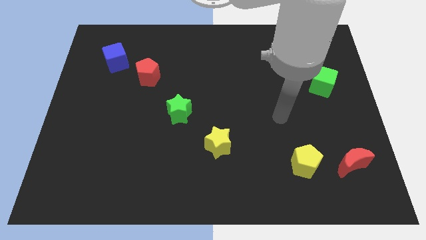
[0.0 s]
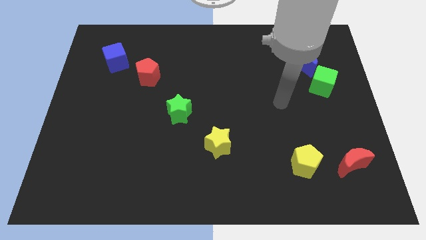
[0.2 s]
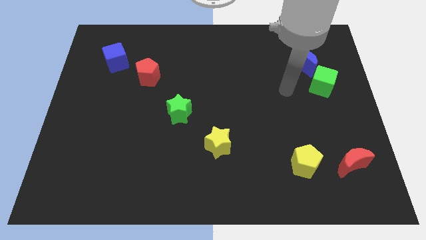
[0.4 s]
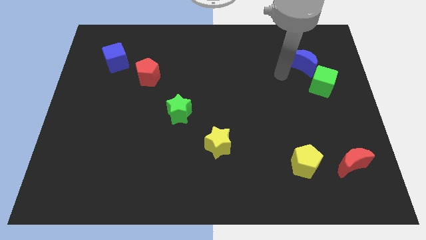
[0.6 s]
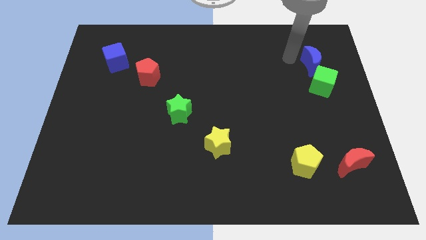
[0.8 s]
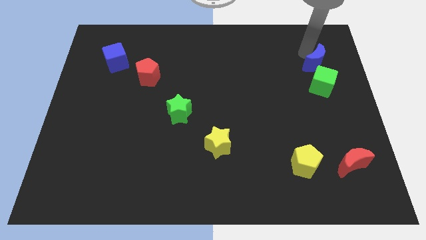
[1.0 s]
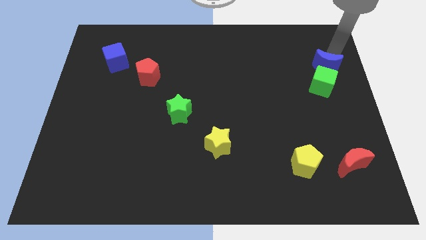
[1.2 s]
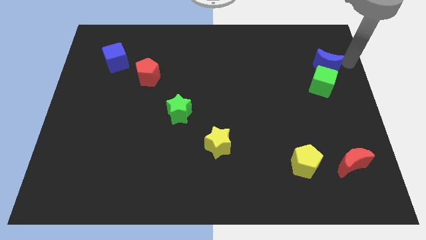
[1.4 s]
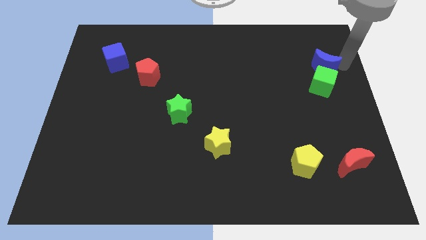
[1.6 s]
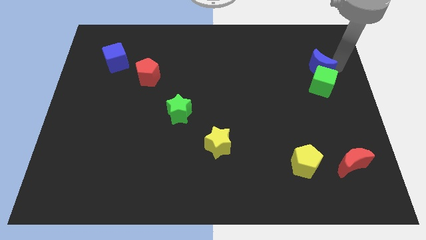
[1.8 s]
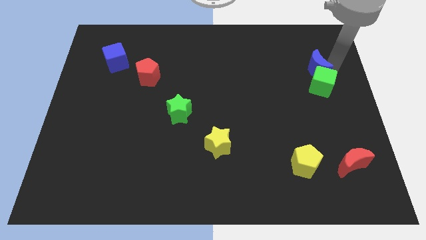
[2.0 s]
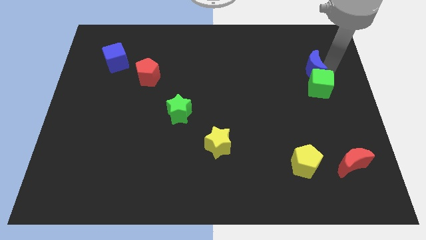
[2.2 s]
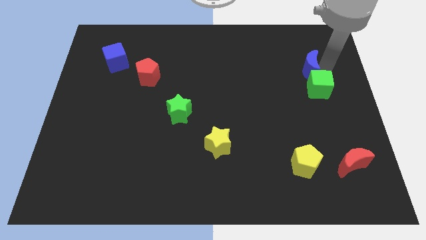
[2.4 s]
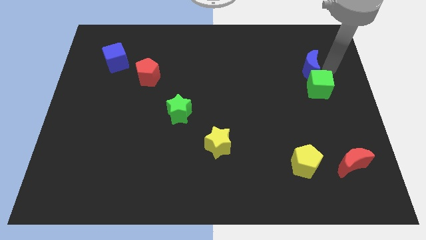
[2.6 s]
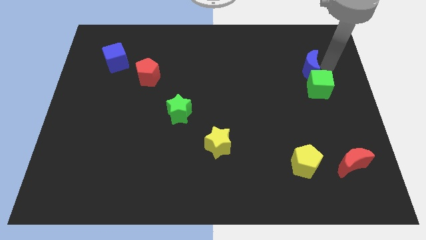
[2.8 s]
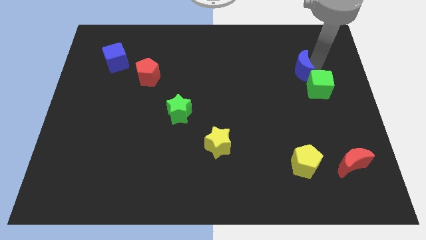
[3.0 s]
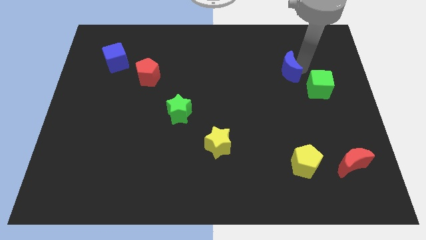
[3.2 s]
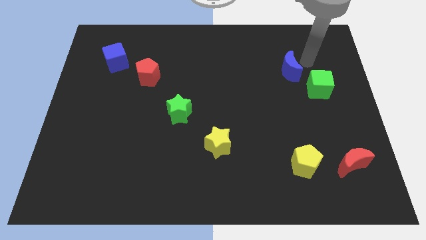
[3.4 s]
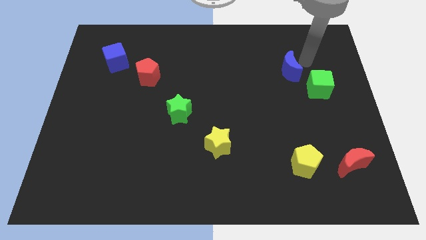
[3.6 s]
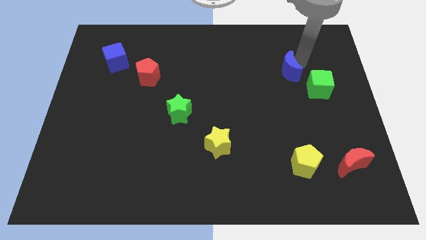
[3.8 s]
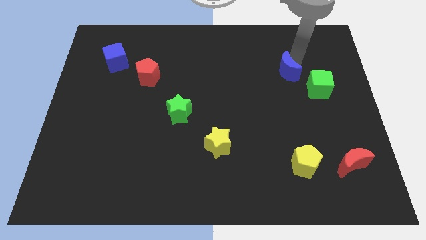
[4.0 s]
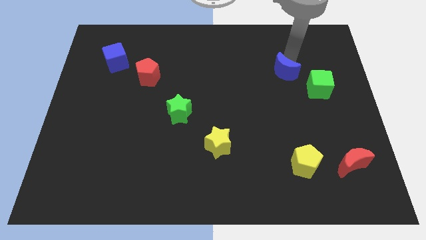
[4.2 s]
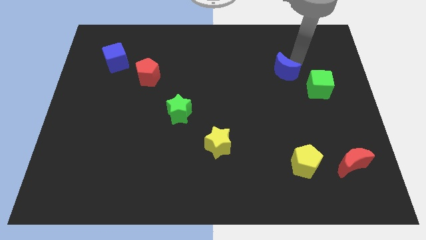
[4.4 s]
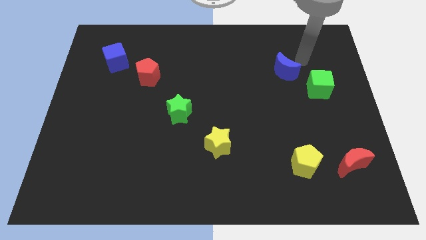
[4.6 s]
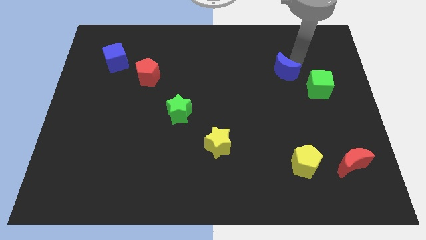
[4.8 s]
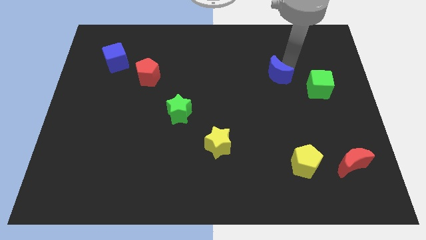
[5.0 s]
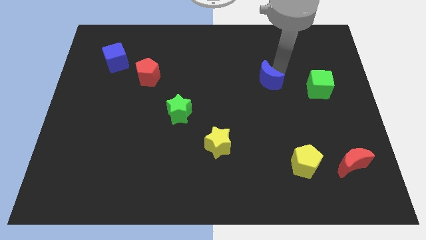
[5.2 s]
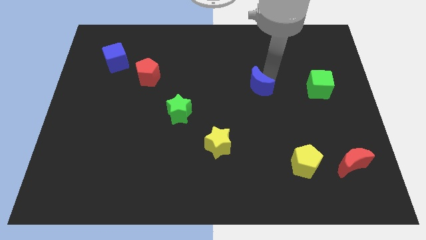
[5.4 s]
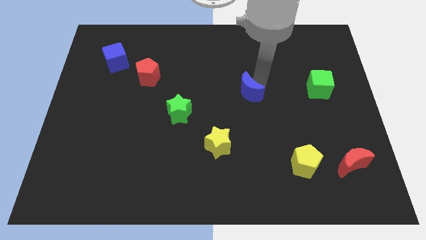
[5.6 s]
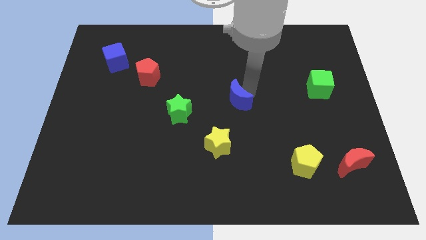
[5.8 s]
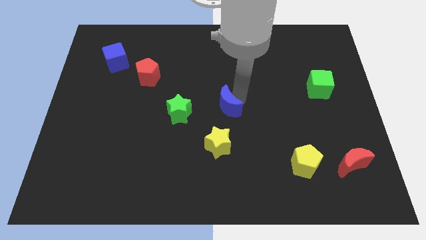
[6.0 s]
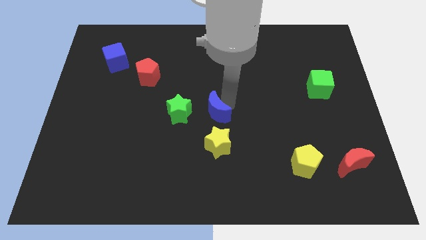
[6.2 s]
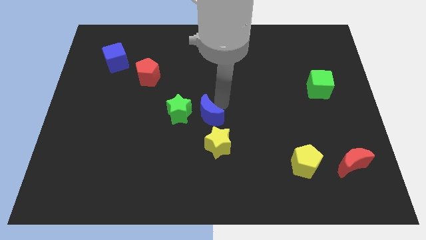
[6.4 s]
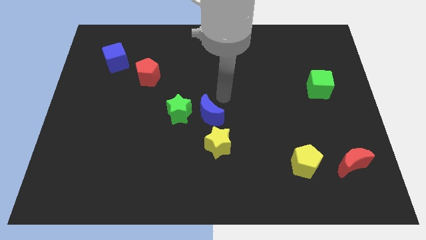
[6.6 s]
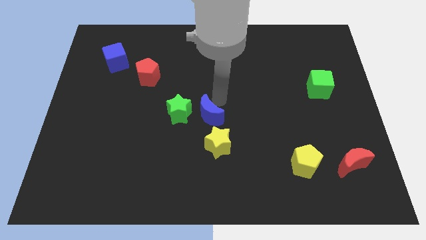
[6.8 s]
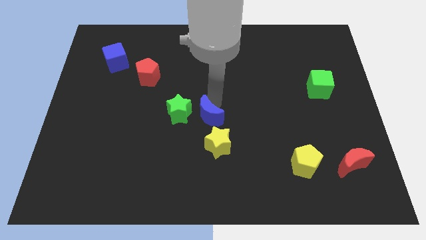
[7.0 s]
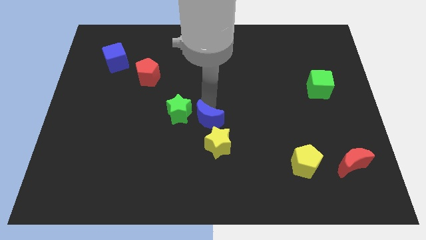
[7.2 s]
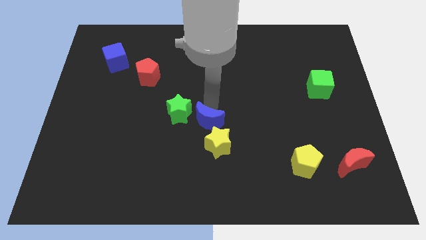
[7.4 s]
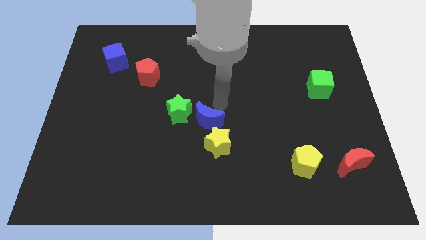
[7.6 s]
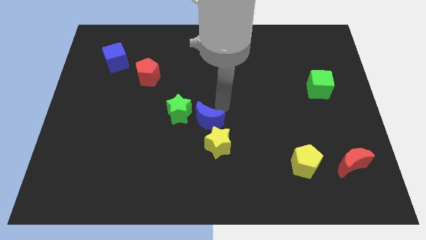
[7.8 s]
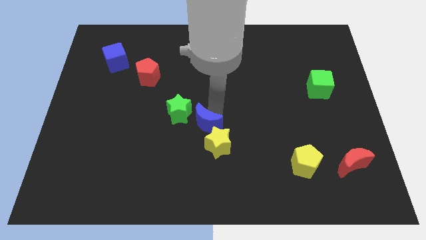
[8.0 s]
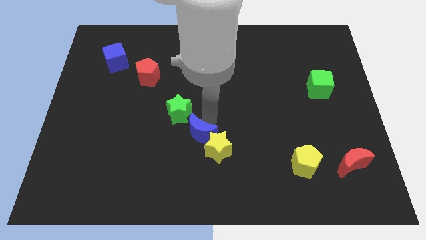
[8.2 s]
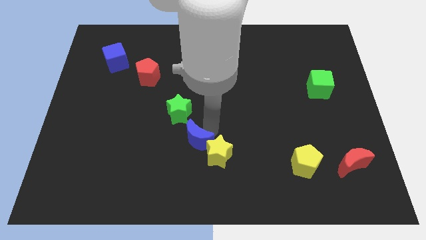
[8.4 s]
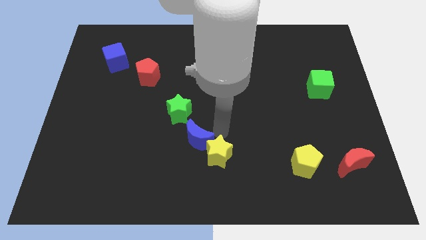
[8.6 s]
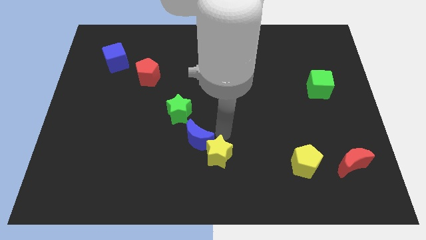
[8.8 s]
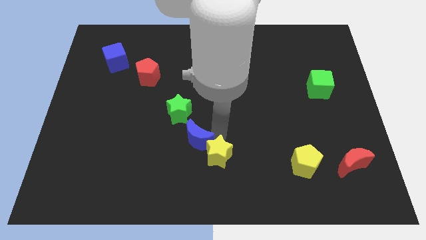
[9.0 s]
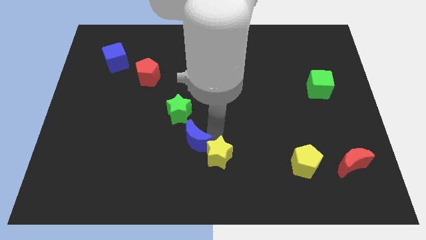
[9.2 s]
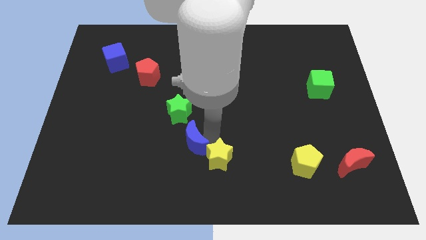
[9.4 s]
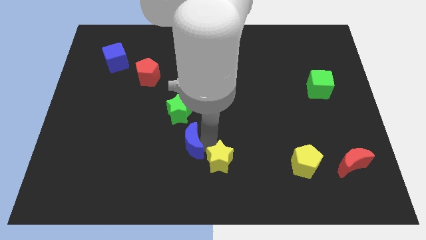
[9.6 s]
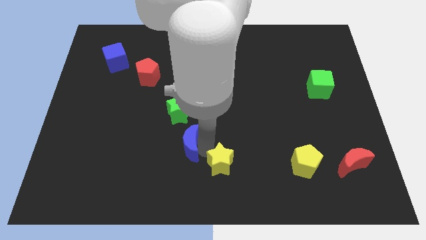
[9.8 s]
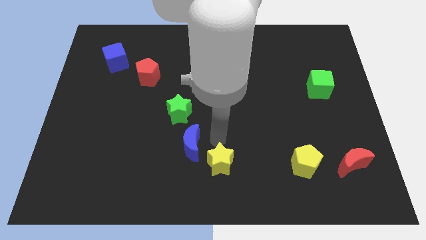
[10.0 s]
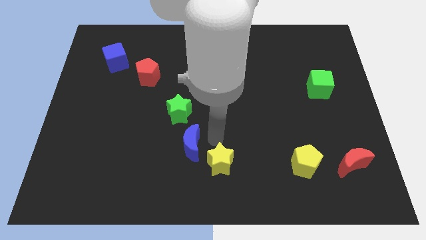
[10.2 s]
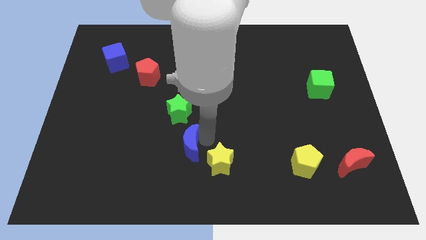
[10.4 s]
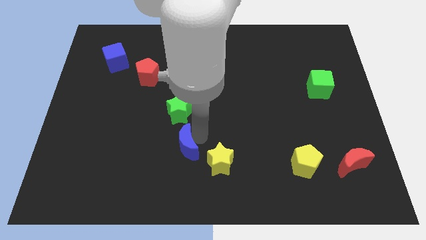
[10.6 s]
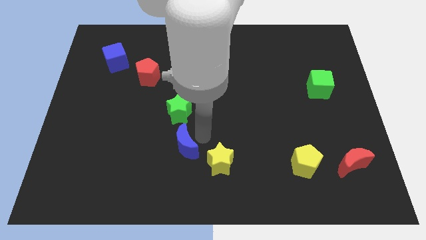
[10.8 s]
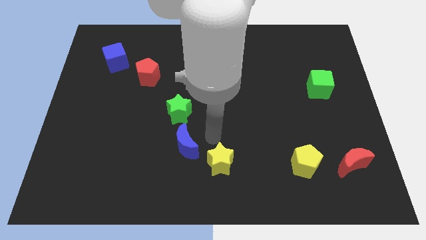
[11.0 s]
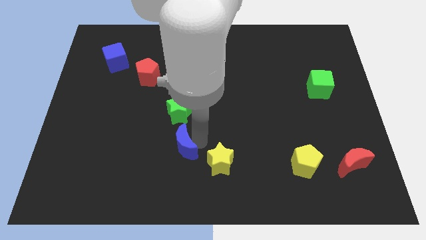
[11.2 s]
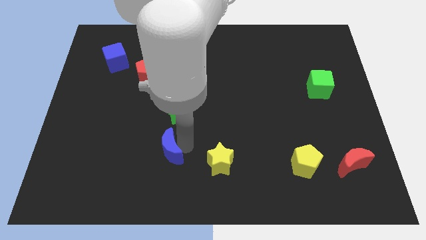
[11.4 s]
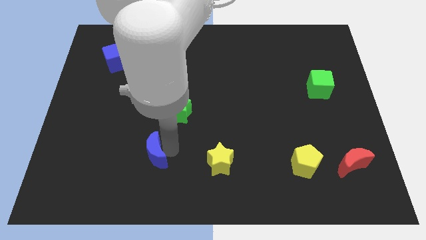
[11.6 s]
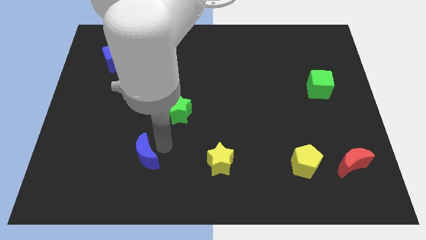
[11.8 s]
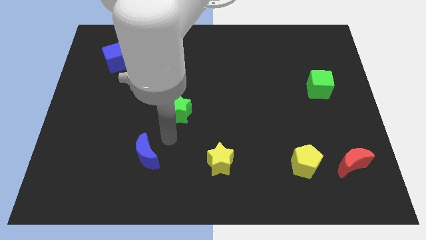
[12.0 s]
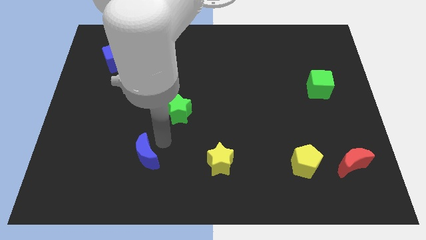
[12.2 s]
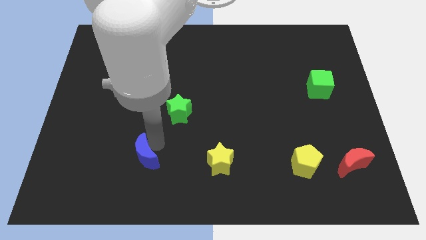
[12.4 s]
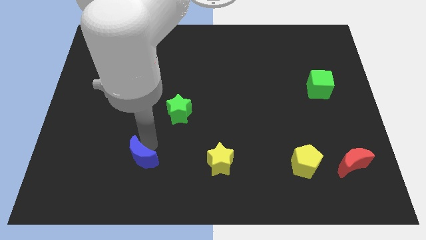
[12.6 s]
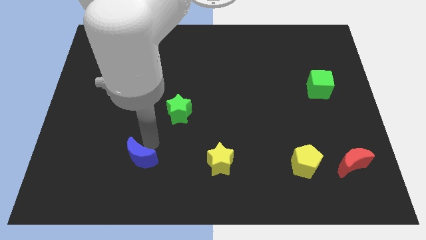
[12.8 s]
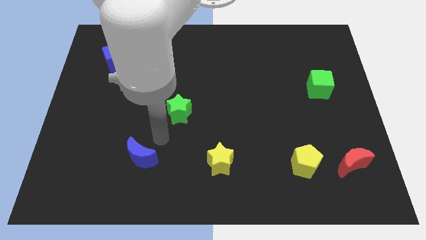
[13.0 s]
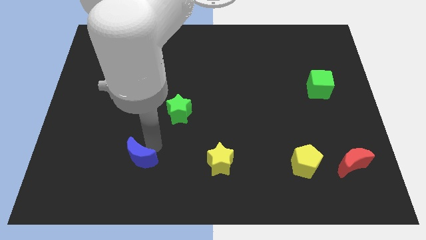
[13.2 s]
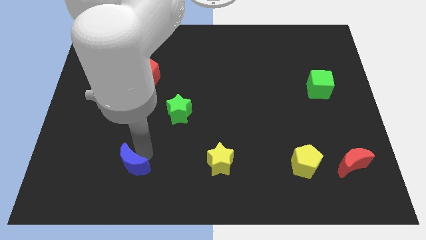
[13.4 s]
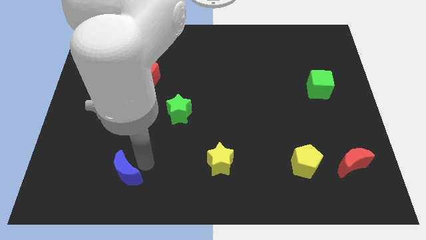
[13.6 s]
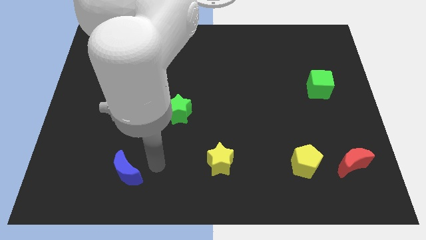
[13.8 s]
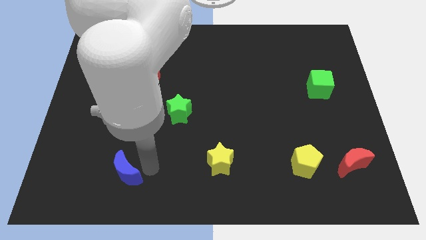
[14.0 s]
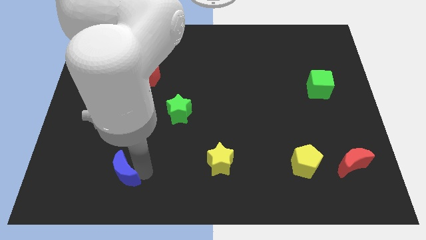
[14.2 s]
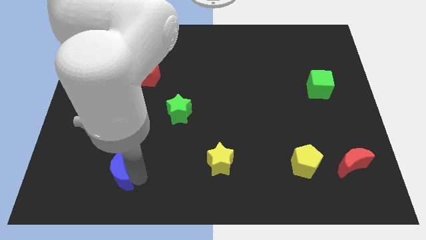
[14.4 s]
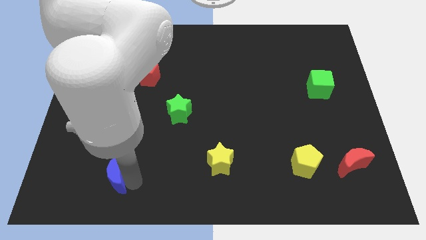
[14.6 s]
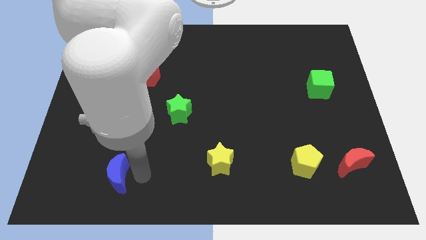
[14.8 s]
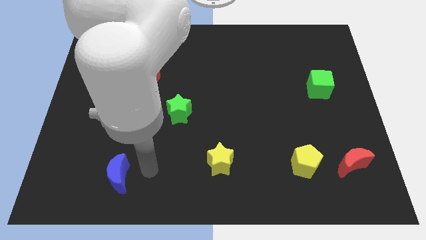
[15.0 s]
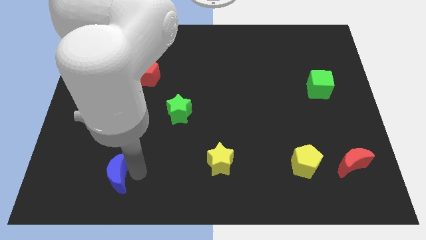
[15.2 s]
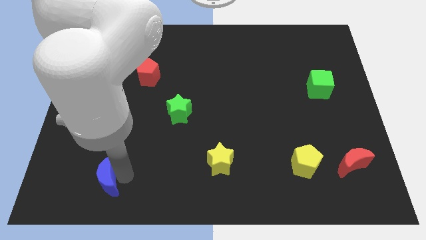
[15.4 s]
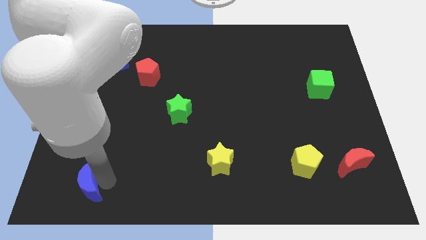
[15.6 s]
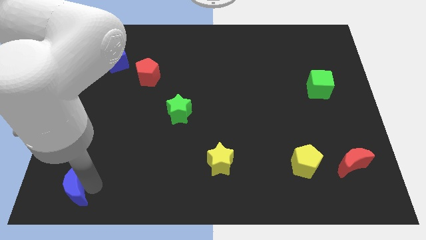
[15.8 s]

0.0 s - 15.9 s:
push the blue moon to the bottom left corner
